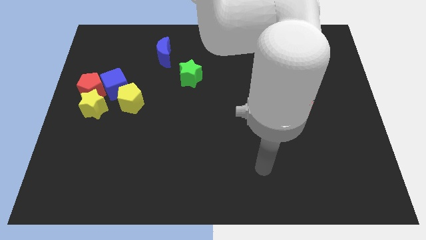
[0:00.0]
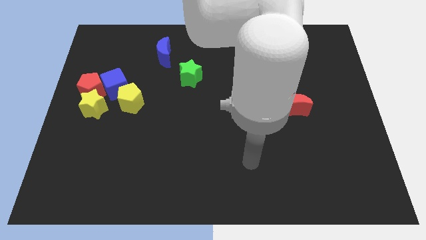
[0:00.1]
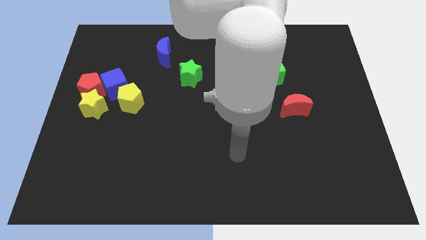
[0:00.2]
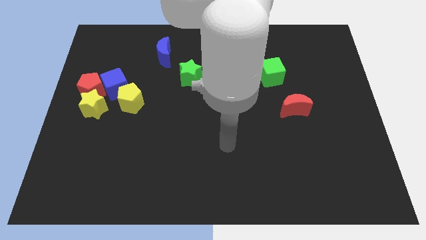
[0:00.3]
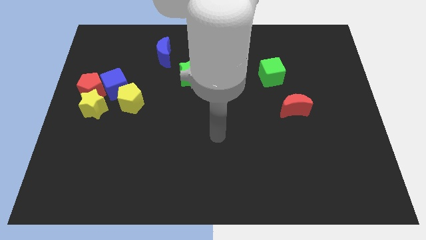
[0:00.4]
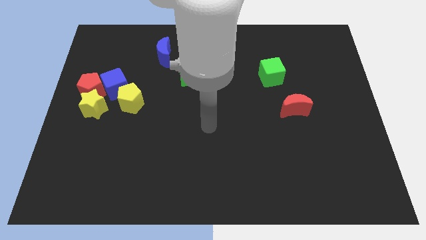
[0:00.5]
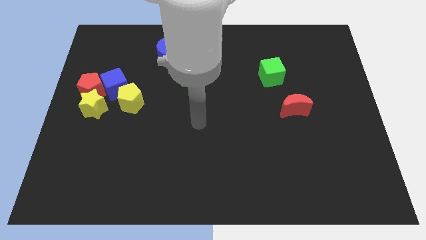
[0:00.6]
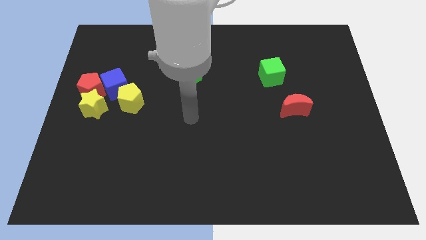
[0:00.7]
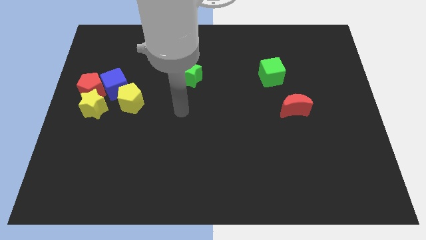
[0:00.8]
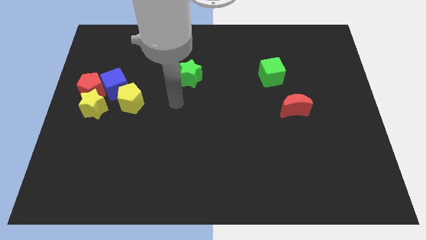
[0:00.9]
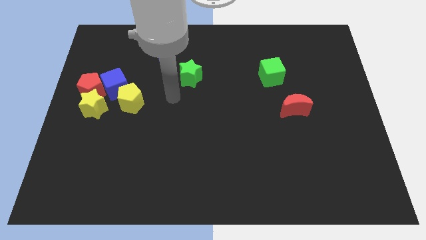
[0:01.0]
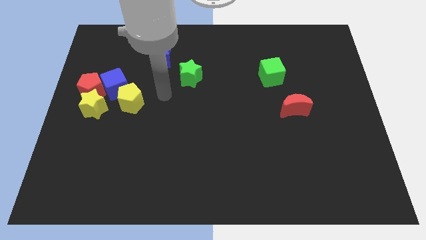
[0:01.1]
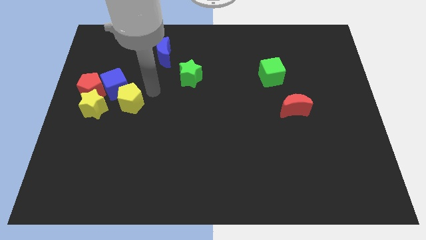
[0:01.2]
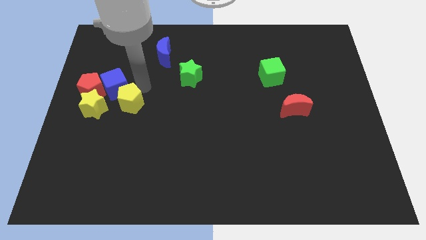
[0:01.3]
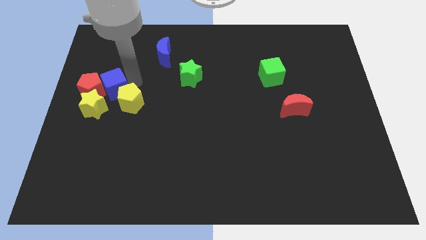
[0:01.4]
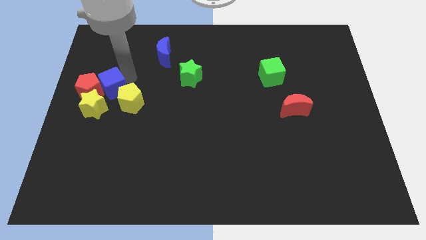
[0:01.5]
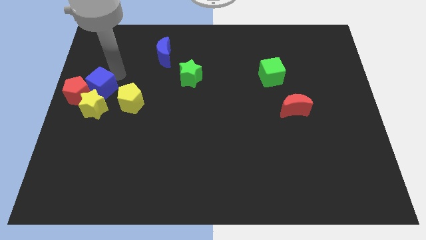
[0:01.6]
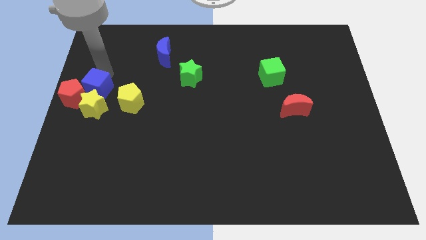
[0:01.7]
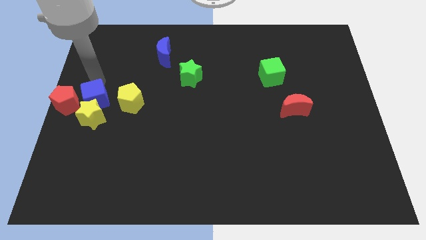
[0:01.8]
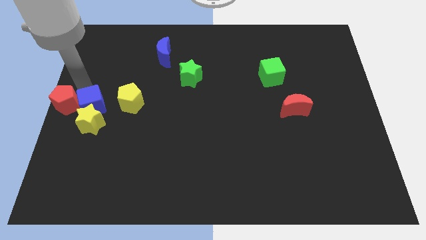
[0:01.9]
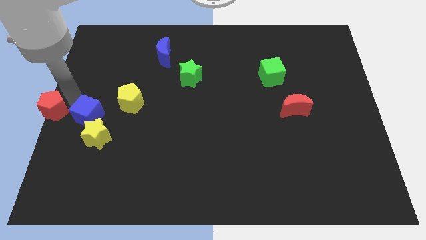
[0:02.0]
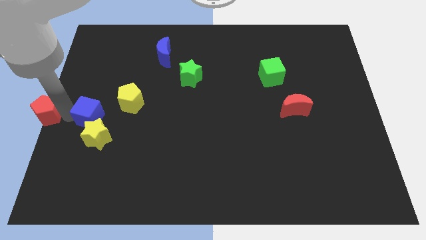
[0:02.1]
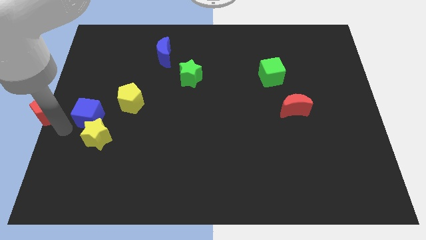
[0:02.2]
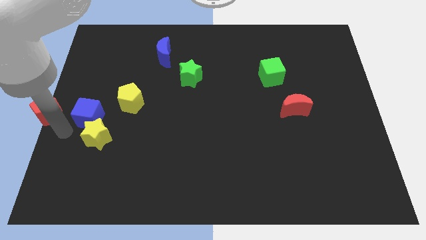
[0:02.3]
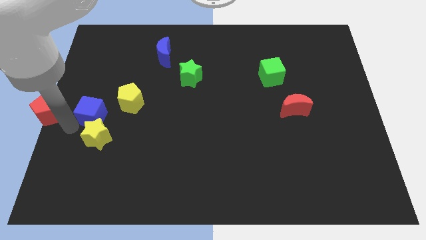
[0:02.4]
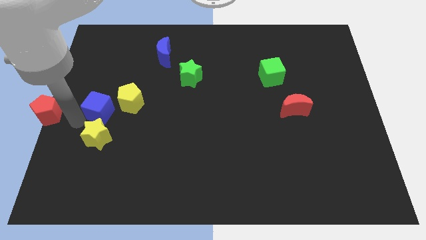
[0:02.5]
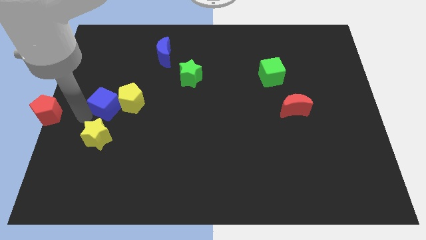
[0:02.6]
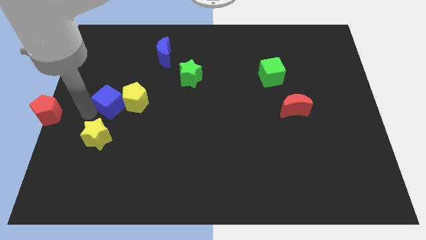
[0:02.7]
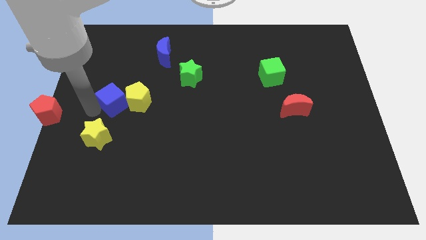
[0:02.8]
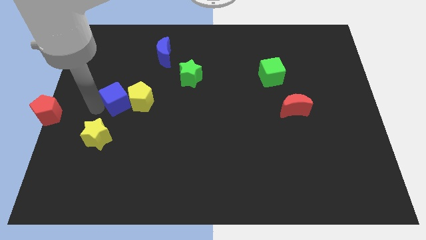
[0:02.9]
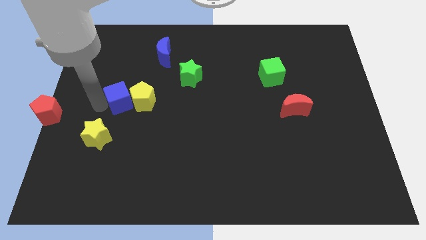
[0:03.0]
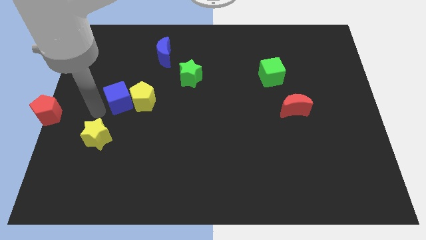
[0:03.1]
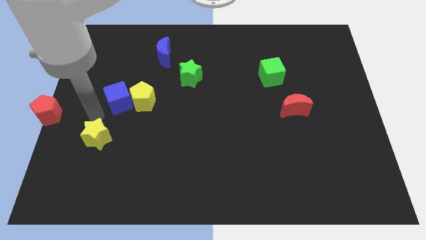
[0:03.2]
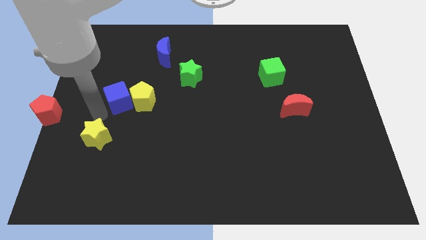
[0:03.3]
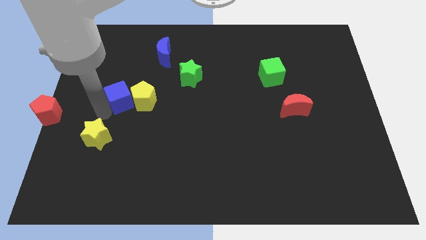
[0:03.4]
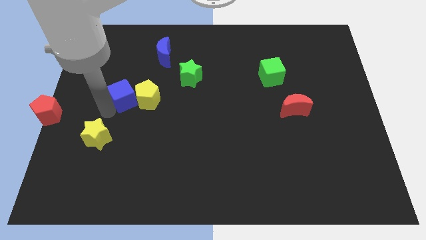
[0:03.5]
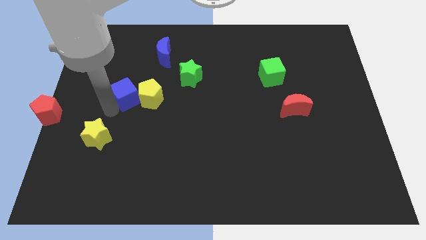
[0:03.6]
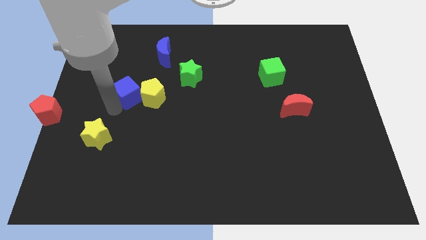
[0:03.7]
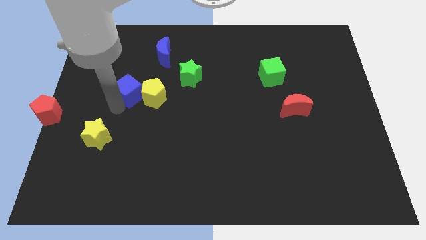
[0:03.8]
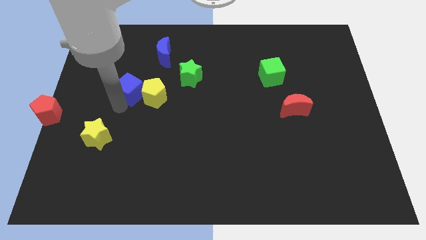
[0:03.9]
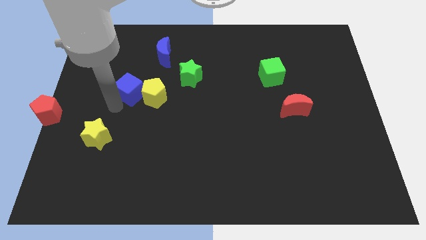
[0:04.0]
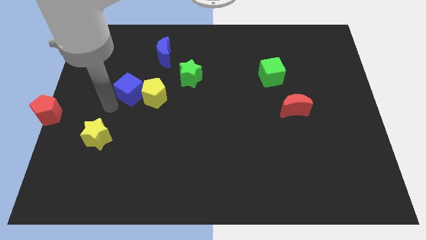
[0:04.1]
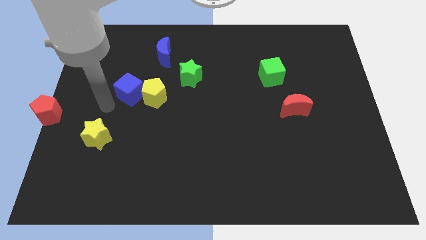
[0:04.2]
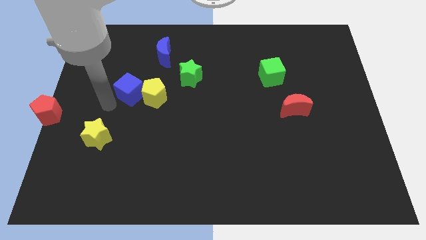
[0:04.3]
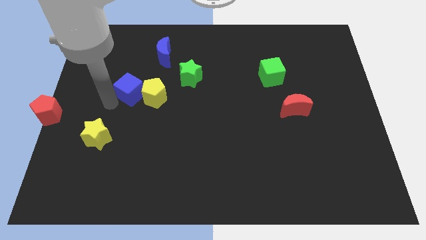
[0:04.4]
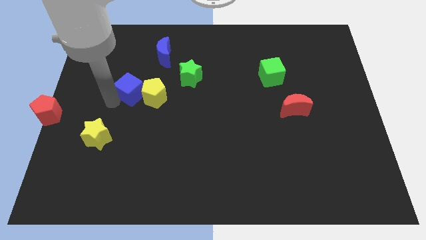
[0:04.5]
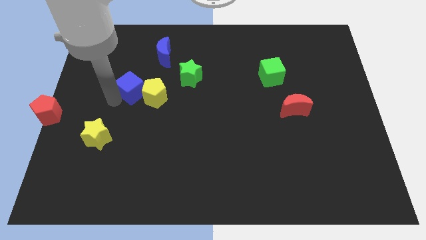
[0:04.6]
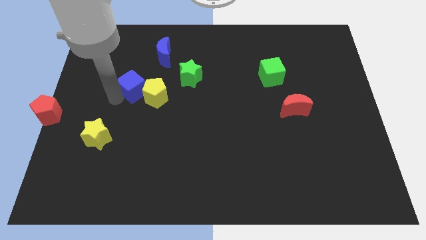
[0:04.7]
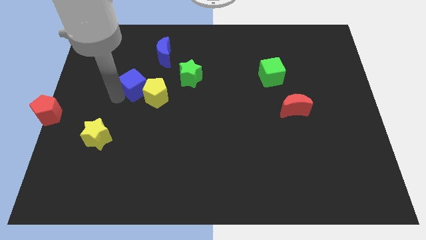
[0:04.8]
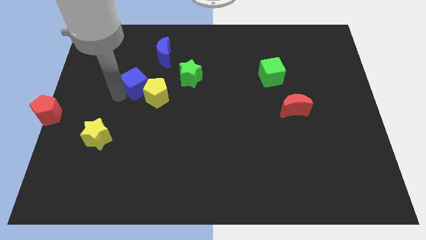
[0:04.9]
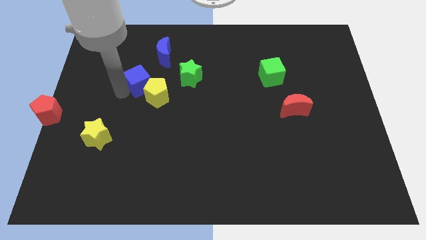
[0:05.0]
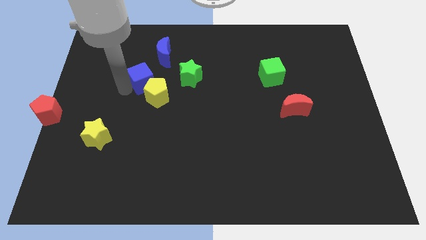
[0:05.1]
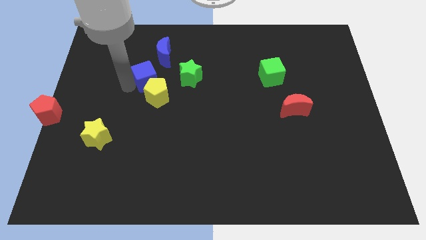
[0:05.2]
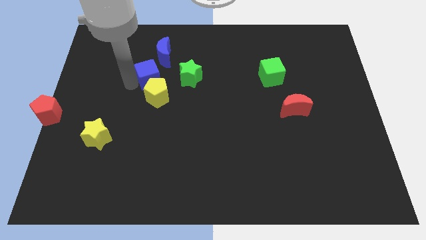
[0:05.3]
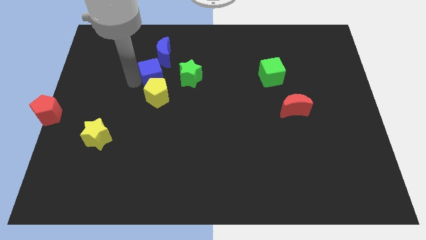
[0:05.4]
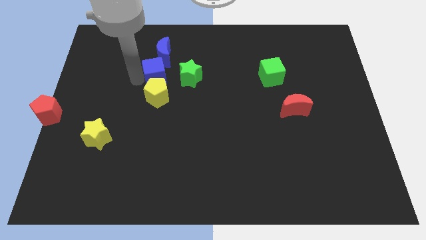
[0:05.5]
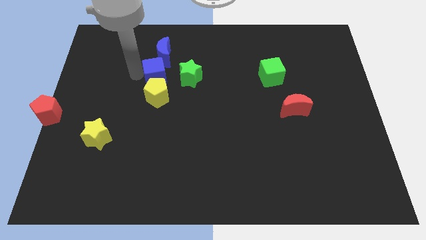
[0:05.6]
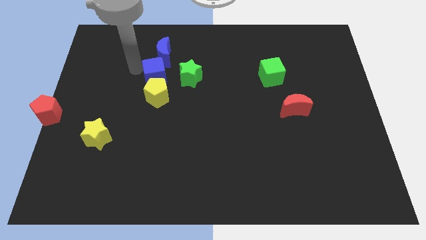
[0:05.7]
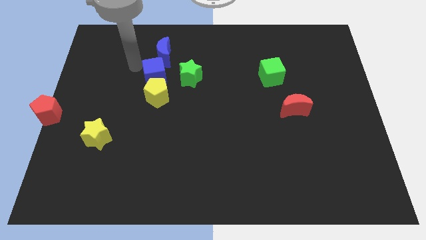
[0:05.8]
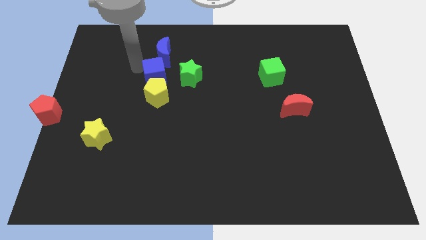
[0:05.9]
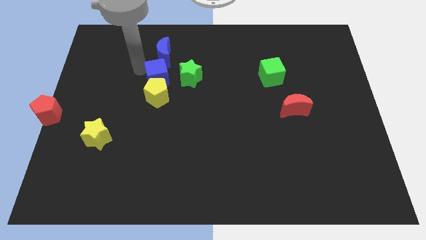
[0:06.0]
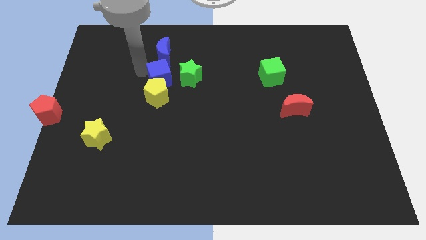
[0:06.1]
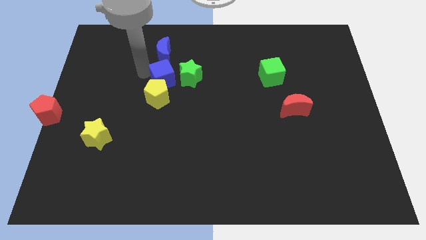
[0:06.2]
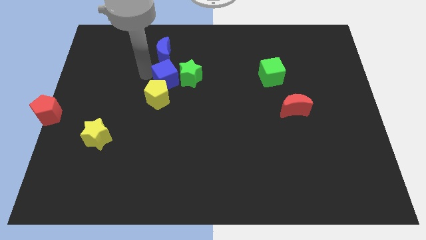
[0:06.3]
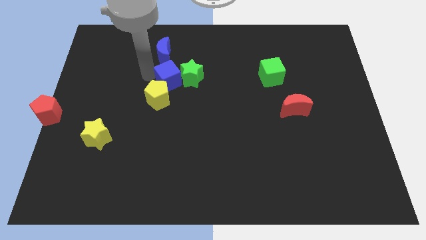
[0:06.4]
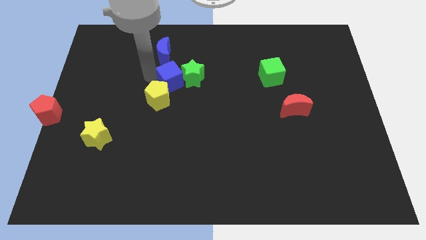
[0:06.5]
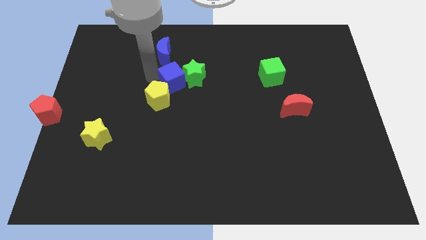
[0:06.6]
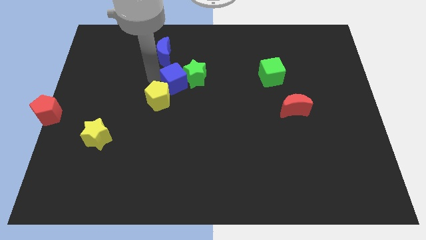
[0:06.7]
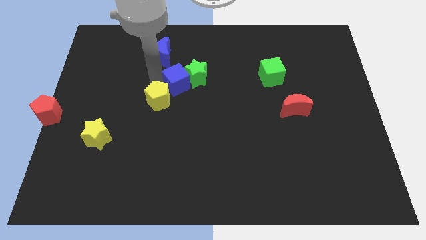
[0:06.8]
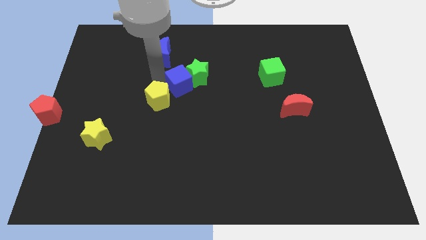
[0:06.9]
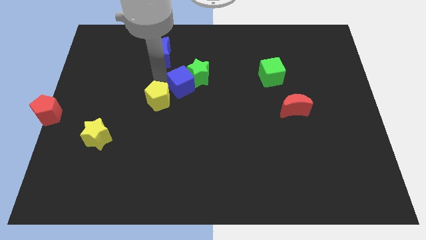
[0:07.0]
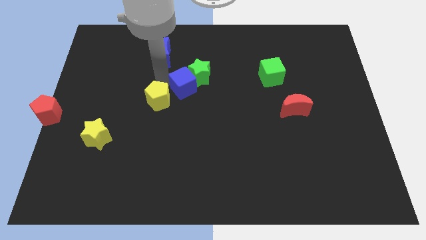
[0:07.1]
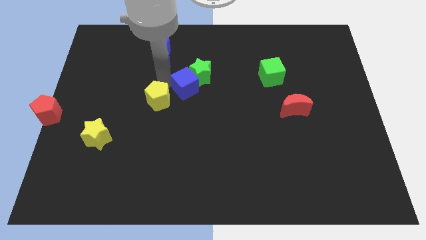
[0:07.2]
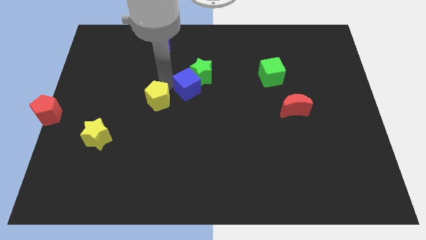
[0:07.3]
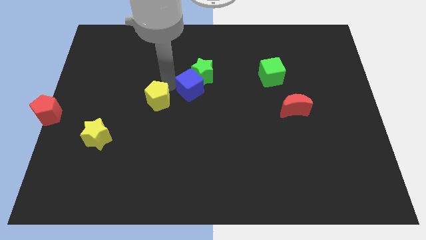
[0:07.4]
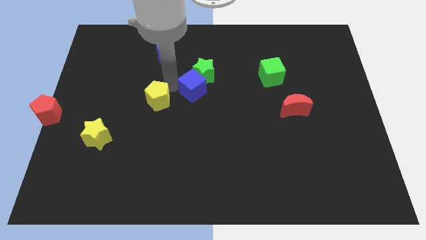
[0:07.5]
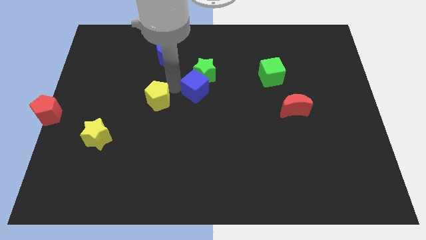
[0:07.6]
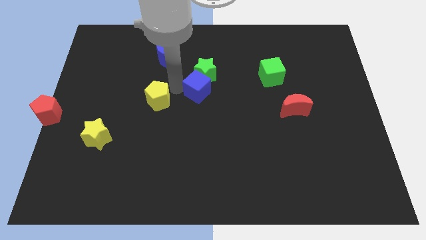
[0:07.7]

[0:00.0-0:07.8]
push the blue cube to the right
